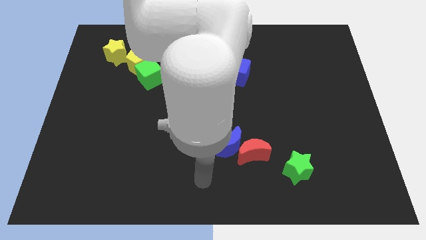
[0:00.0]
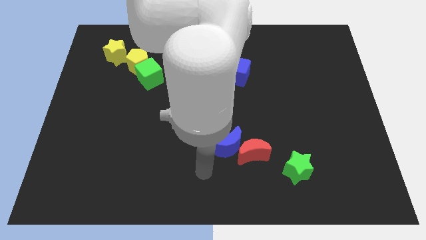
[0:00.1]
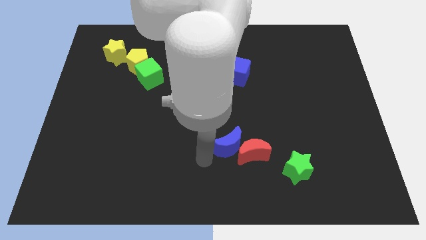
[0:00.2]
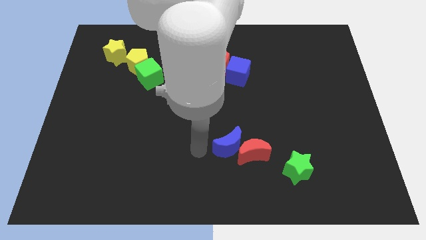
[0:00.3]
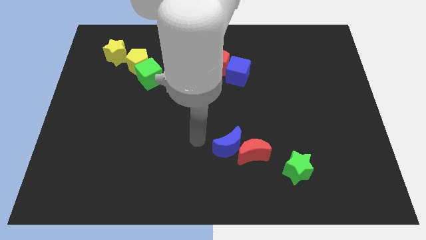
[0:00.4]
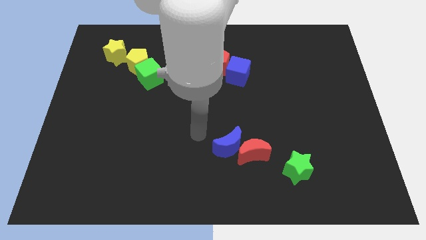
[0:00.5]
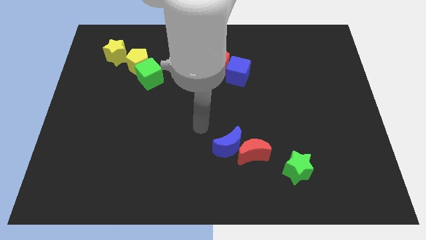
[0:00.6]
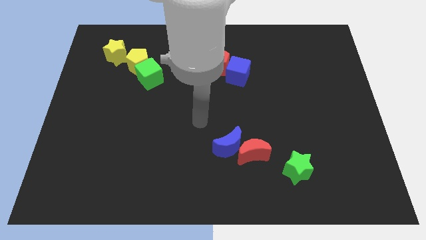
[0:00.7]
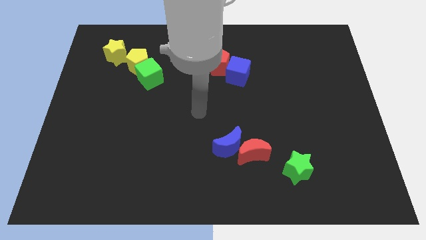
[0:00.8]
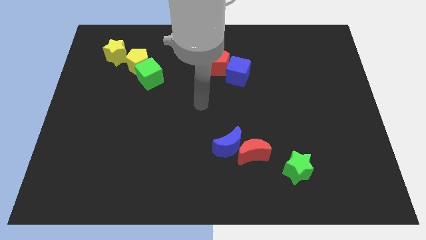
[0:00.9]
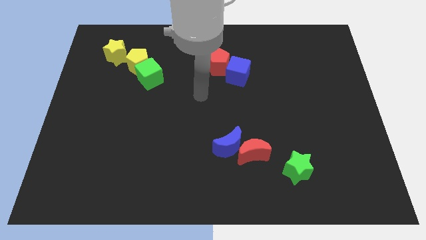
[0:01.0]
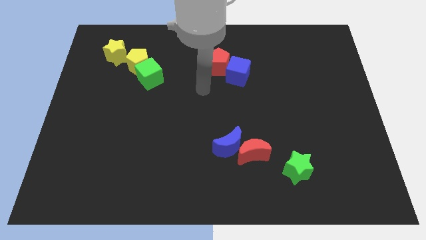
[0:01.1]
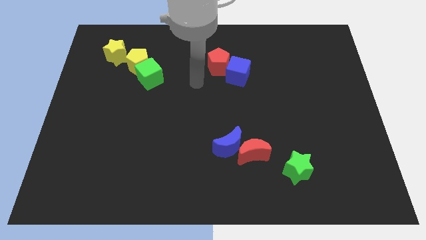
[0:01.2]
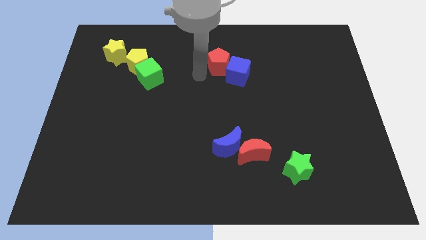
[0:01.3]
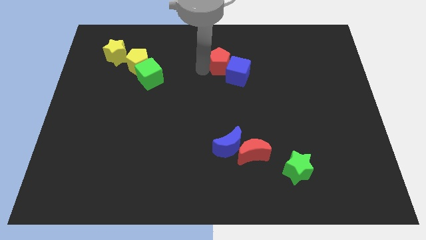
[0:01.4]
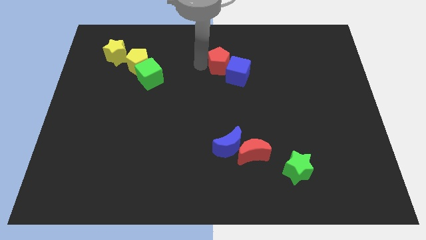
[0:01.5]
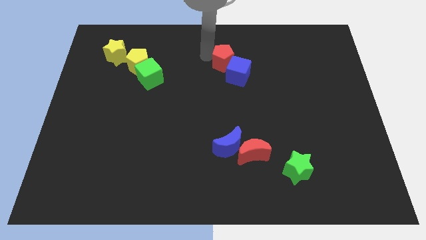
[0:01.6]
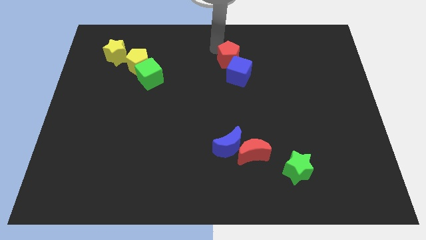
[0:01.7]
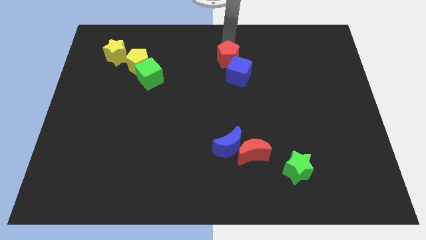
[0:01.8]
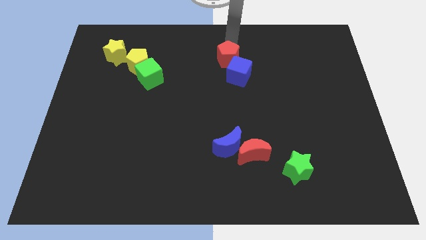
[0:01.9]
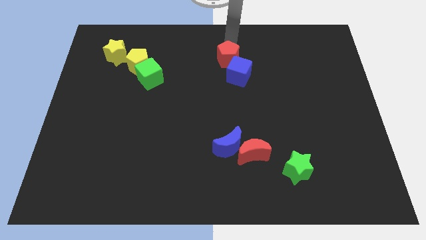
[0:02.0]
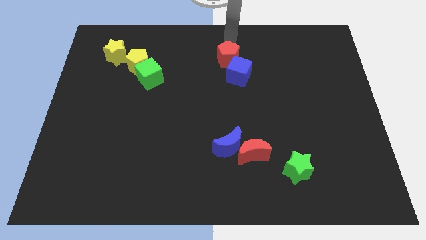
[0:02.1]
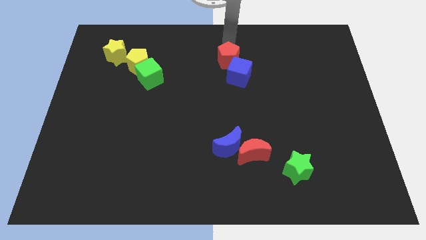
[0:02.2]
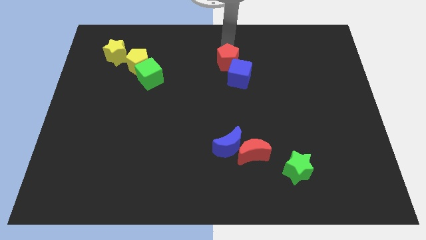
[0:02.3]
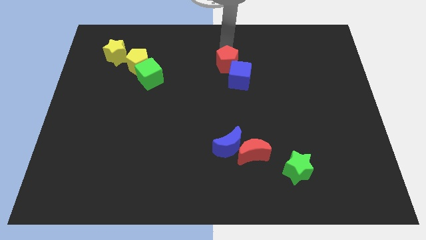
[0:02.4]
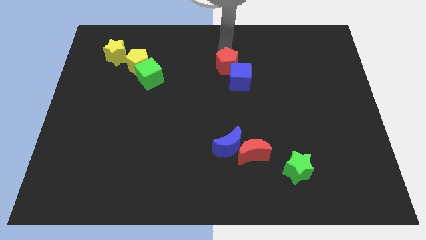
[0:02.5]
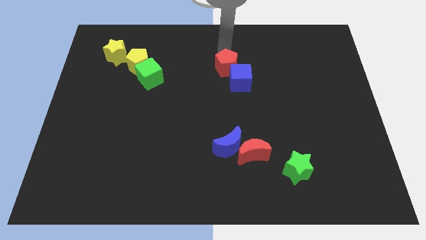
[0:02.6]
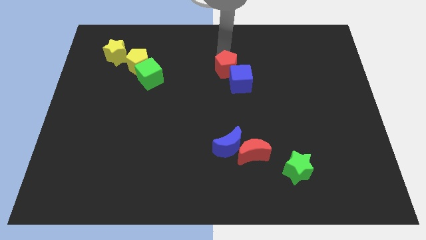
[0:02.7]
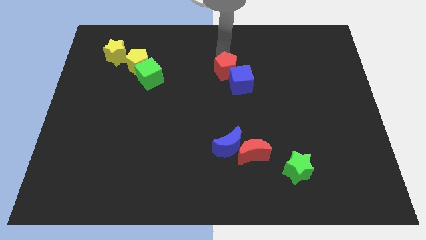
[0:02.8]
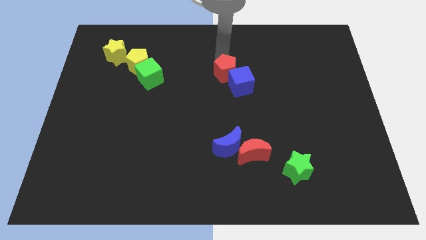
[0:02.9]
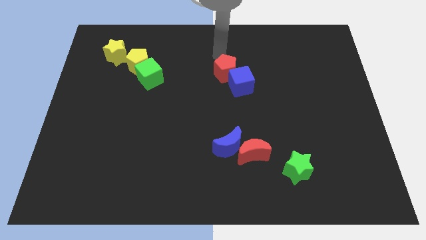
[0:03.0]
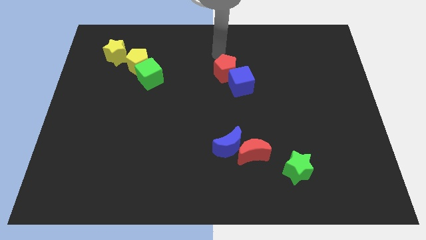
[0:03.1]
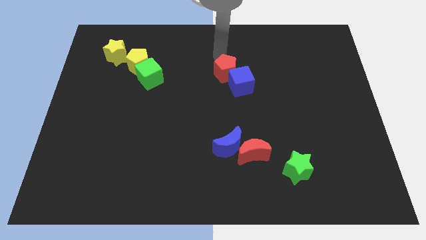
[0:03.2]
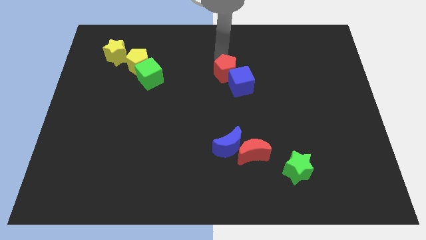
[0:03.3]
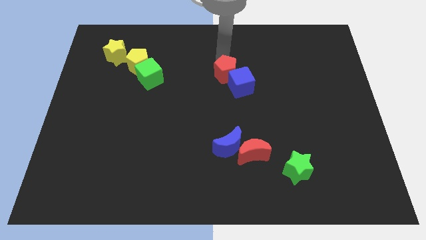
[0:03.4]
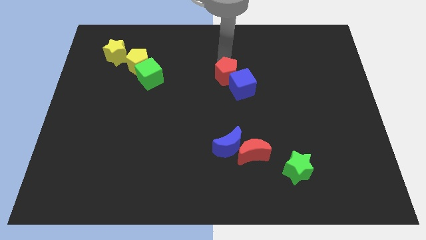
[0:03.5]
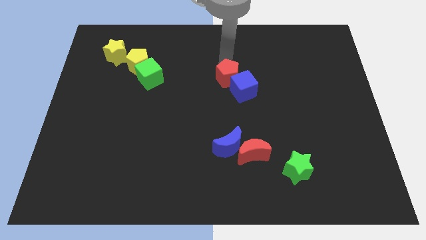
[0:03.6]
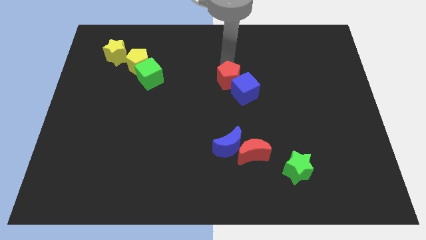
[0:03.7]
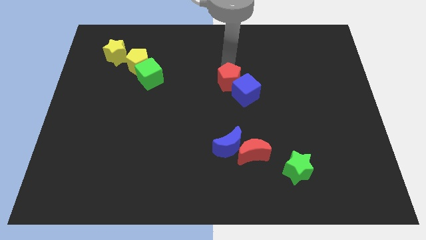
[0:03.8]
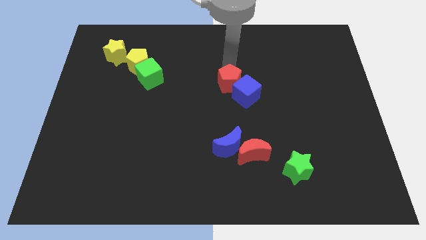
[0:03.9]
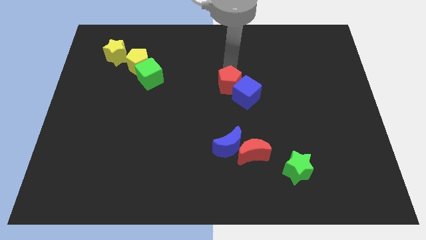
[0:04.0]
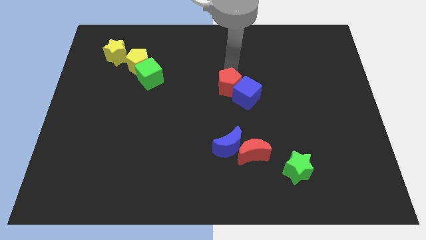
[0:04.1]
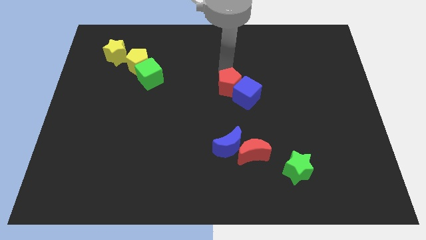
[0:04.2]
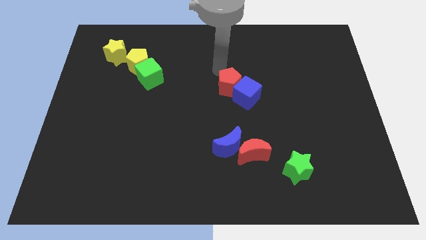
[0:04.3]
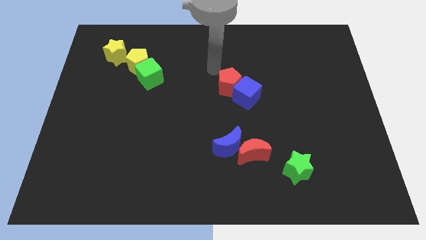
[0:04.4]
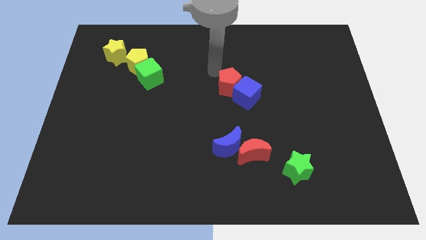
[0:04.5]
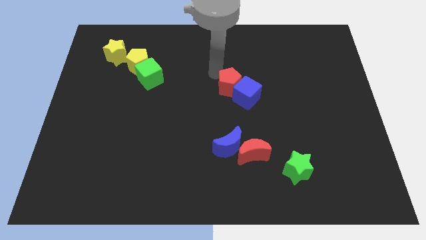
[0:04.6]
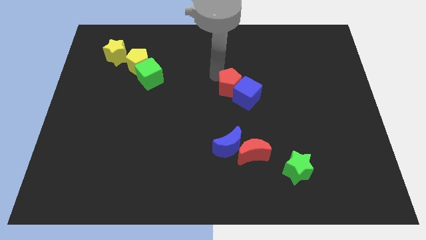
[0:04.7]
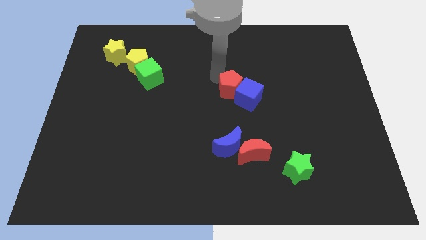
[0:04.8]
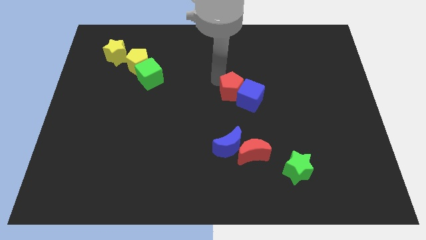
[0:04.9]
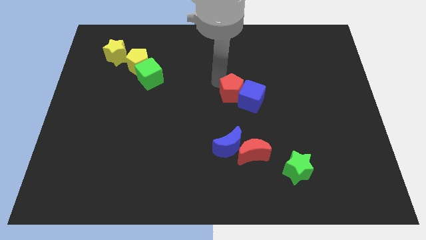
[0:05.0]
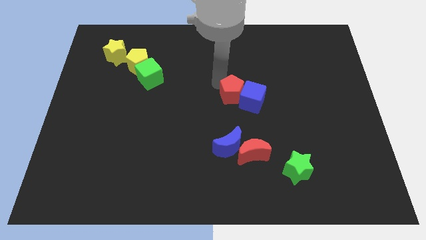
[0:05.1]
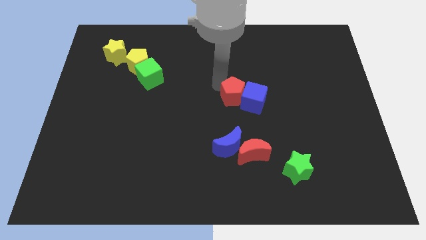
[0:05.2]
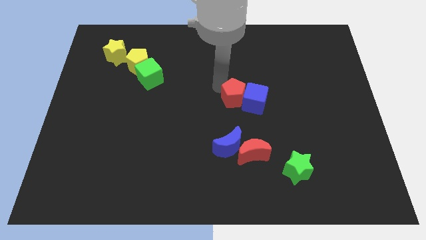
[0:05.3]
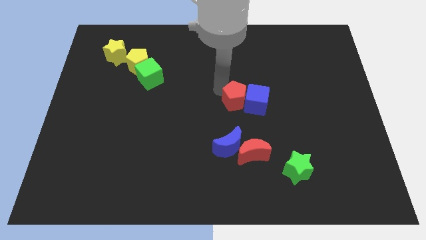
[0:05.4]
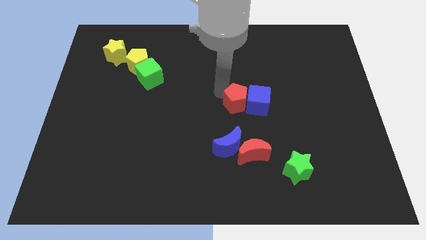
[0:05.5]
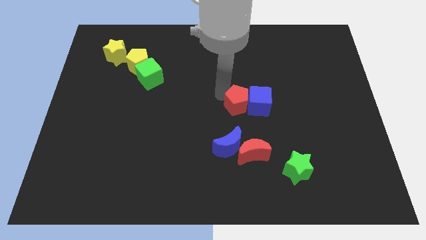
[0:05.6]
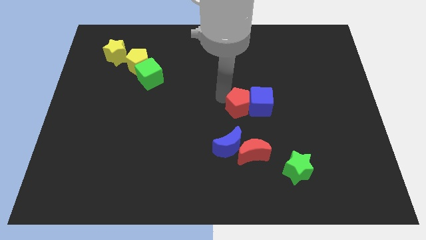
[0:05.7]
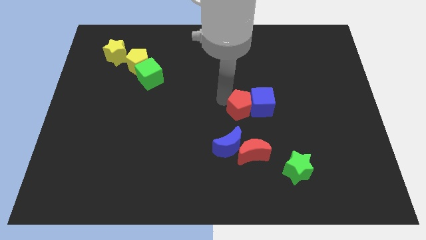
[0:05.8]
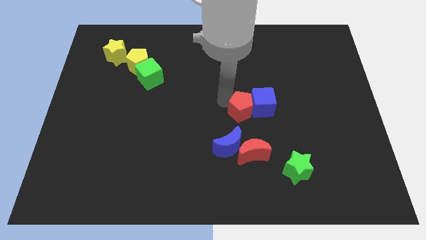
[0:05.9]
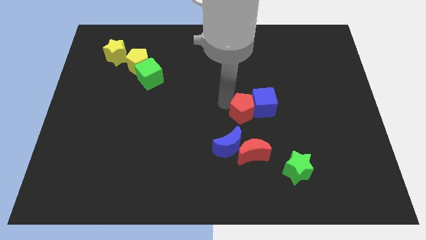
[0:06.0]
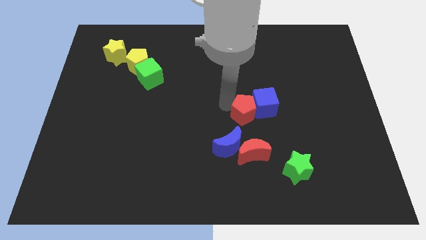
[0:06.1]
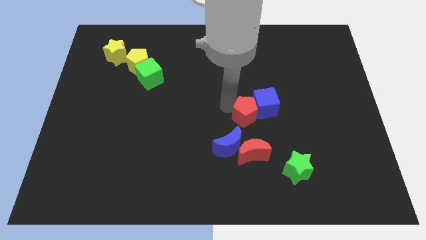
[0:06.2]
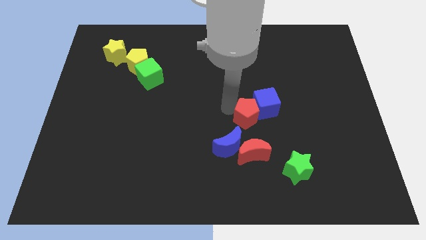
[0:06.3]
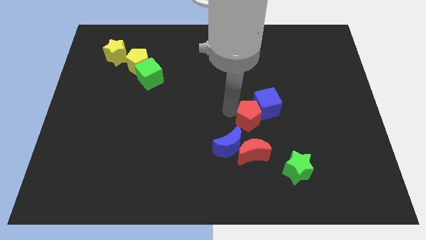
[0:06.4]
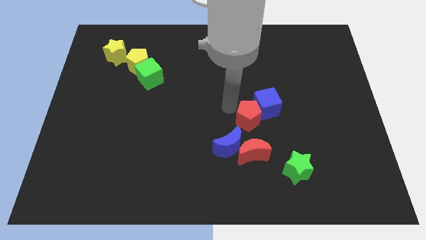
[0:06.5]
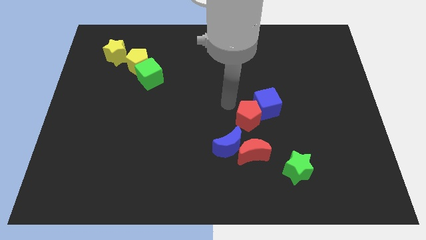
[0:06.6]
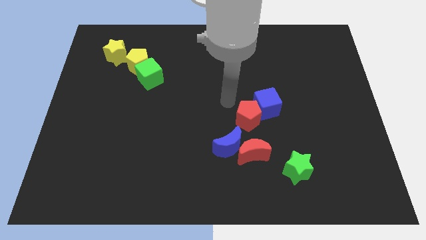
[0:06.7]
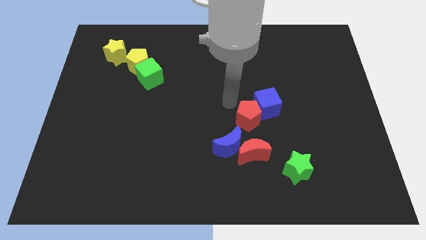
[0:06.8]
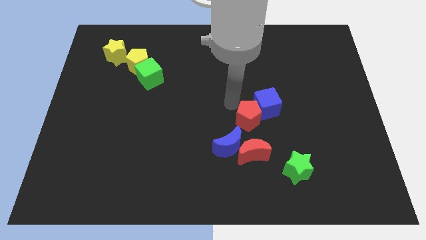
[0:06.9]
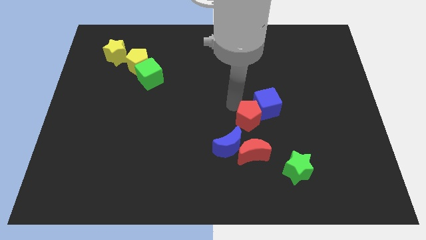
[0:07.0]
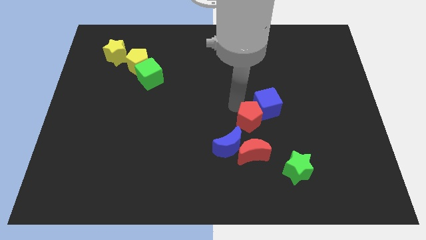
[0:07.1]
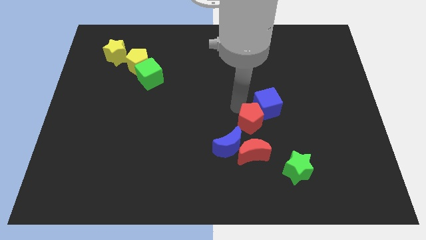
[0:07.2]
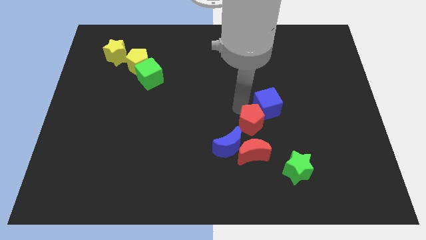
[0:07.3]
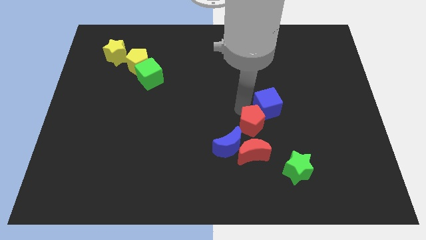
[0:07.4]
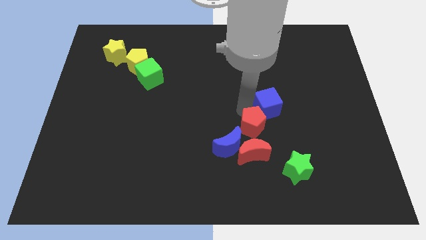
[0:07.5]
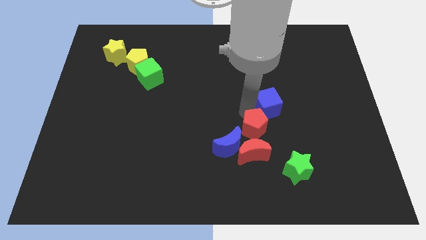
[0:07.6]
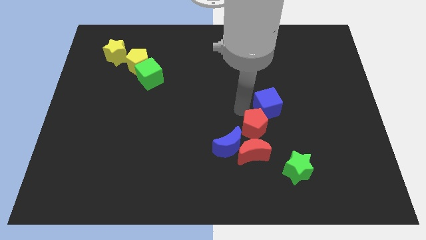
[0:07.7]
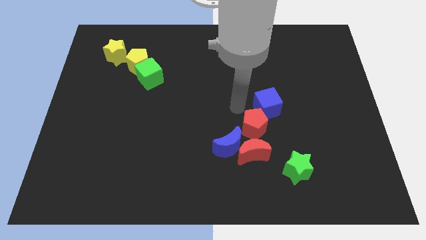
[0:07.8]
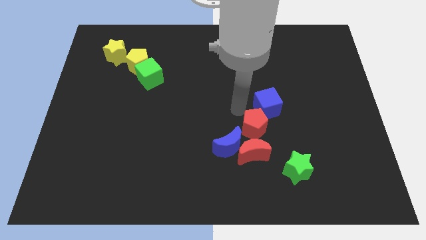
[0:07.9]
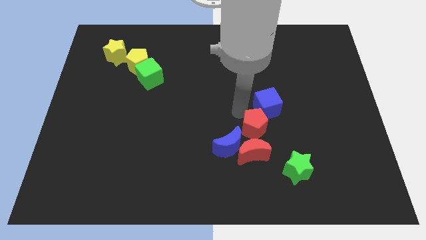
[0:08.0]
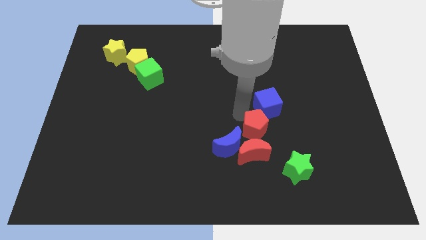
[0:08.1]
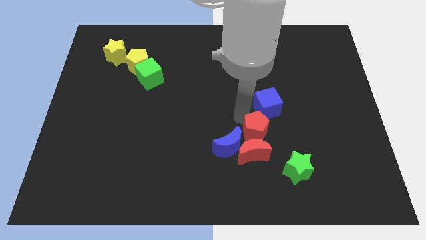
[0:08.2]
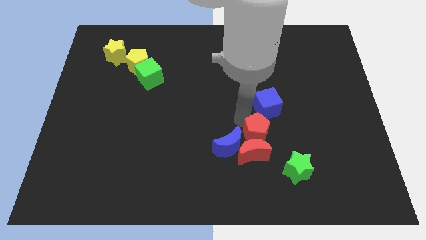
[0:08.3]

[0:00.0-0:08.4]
push the red pentagon to the top left of the green star
